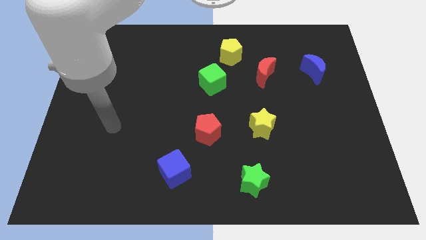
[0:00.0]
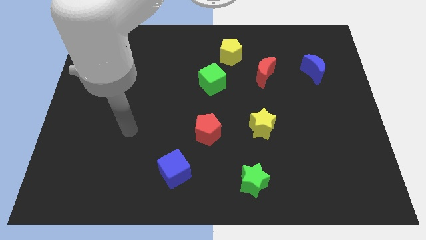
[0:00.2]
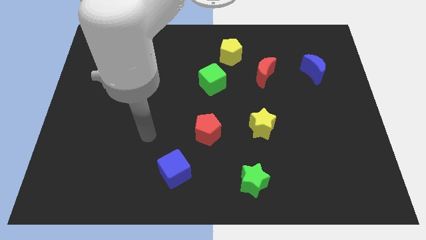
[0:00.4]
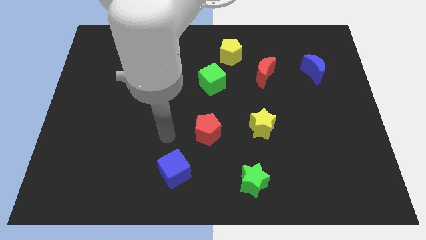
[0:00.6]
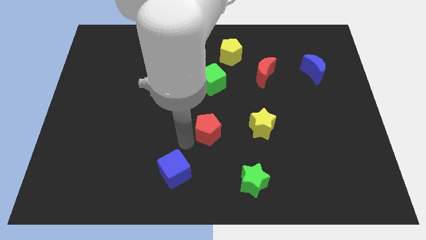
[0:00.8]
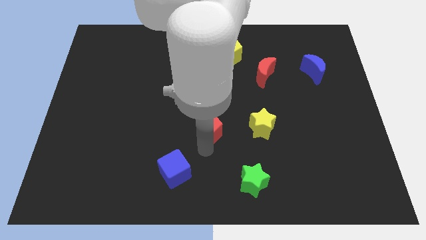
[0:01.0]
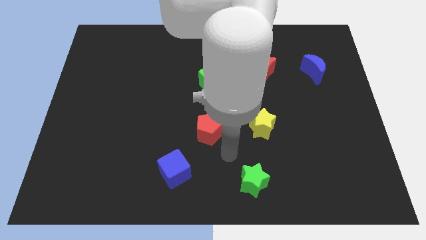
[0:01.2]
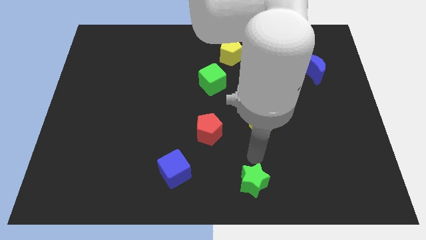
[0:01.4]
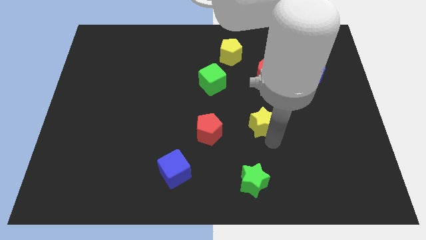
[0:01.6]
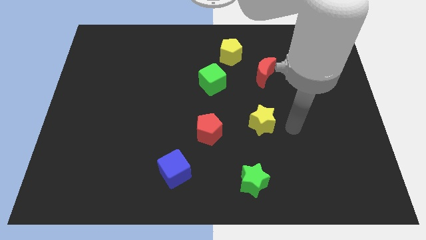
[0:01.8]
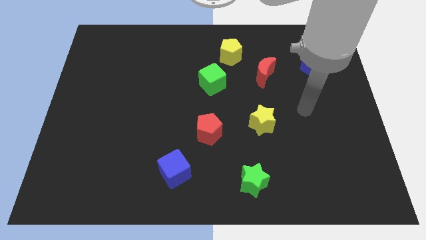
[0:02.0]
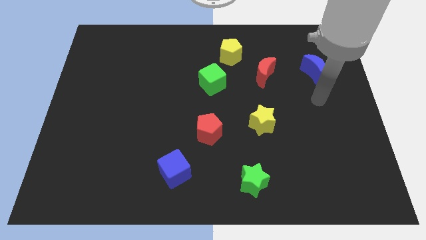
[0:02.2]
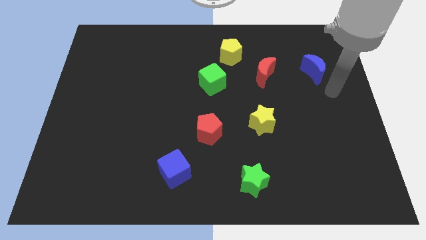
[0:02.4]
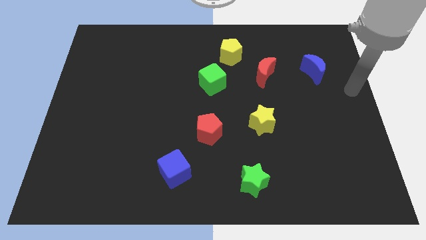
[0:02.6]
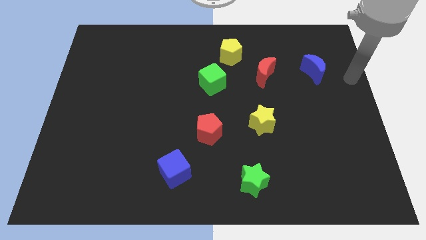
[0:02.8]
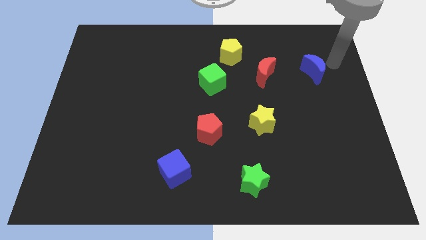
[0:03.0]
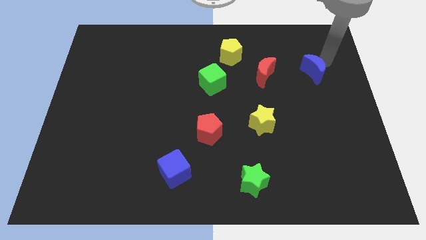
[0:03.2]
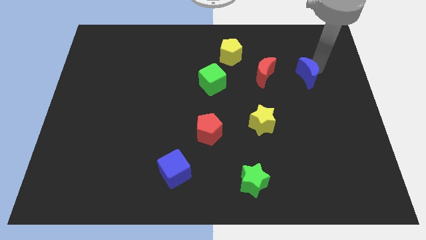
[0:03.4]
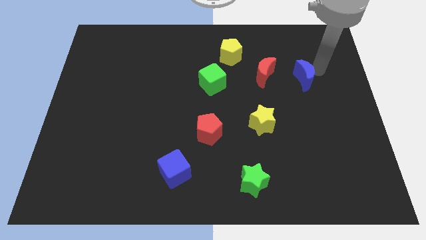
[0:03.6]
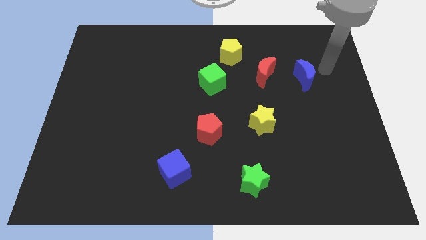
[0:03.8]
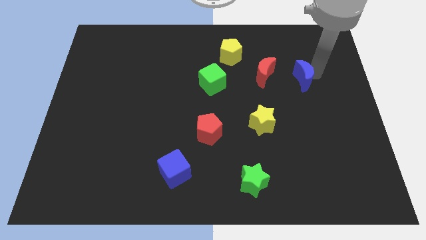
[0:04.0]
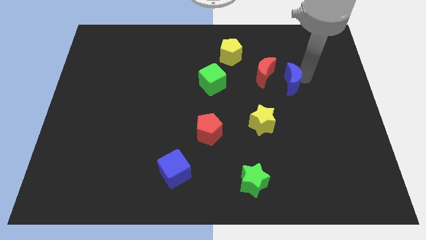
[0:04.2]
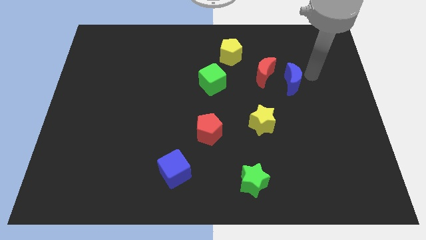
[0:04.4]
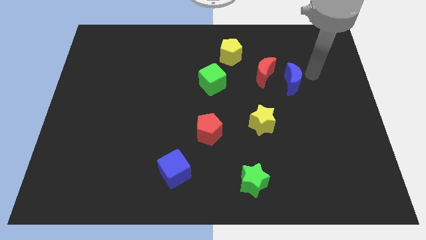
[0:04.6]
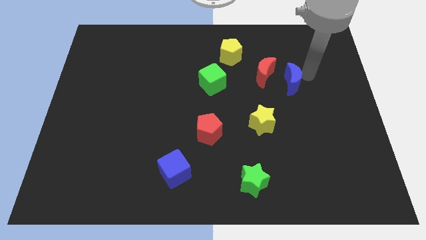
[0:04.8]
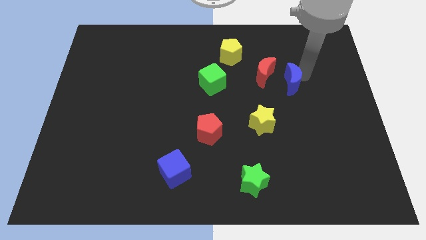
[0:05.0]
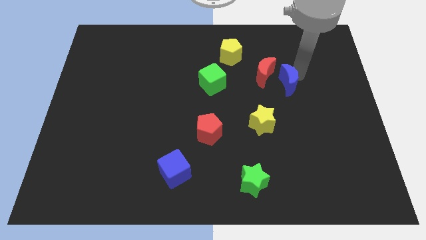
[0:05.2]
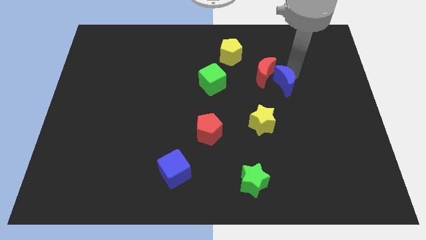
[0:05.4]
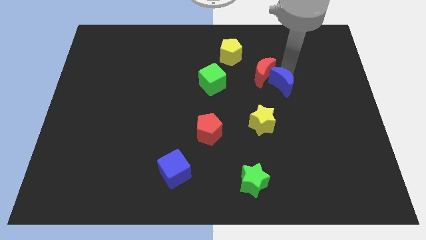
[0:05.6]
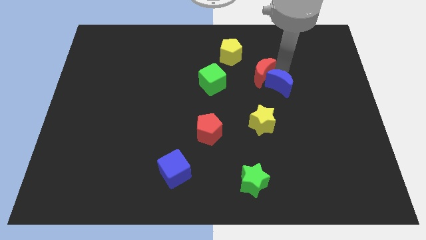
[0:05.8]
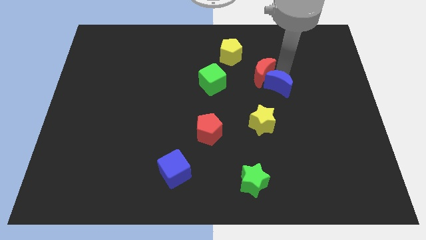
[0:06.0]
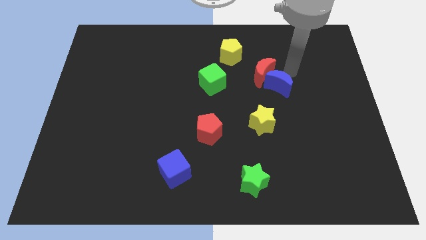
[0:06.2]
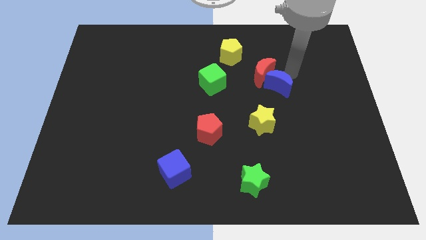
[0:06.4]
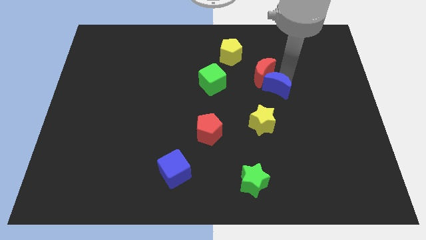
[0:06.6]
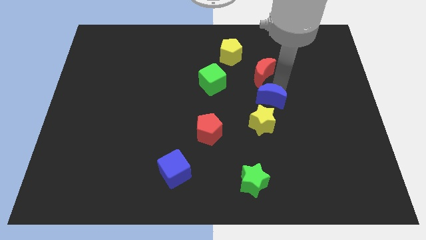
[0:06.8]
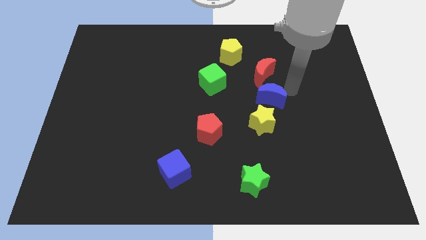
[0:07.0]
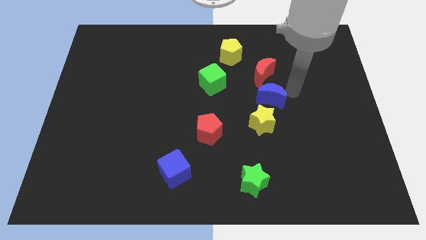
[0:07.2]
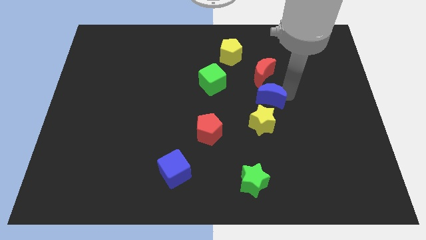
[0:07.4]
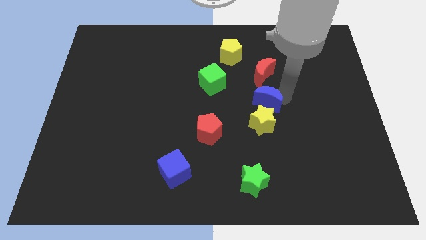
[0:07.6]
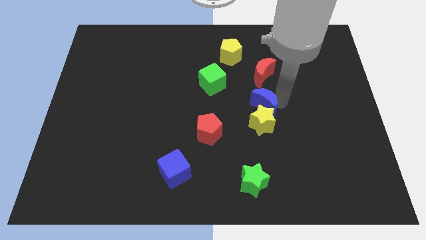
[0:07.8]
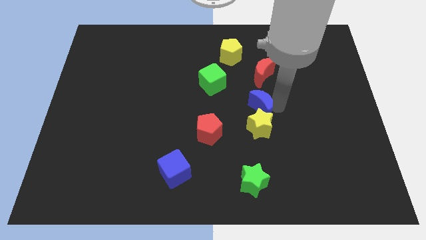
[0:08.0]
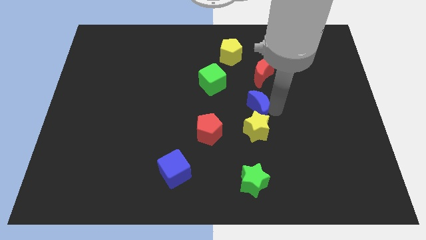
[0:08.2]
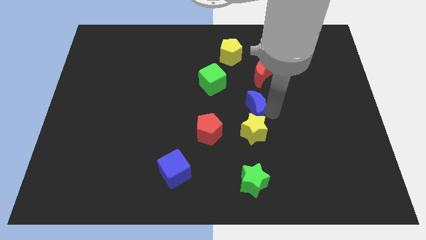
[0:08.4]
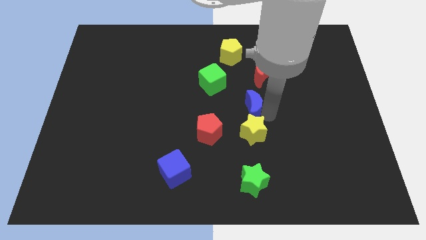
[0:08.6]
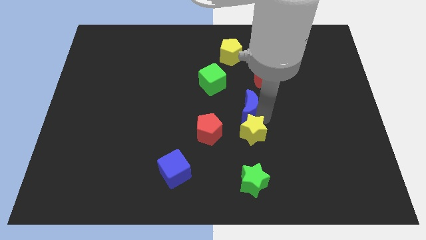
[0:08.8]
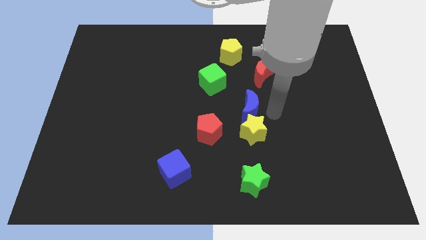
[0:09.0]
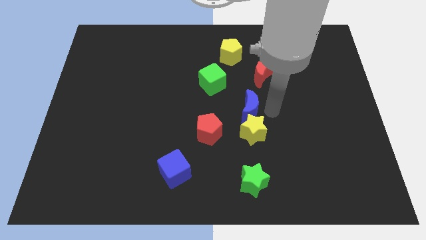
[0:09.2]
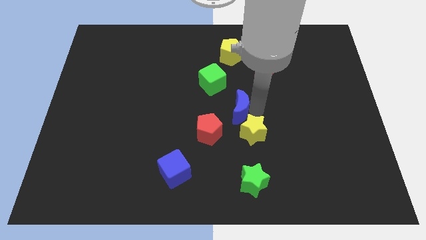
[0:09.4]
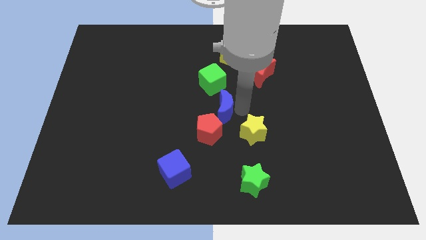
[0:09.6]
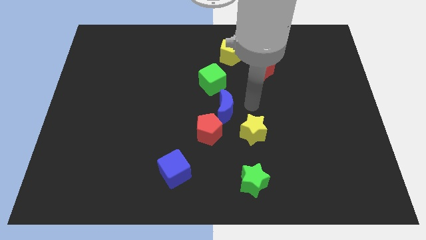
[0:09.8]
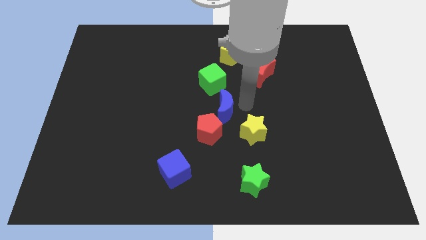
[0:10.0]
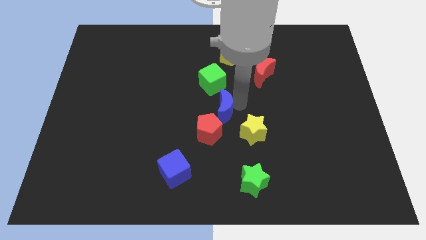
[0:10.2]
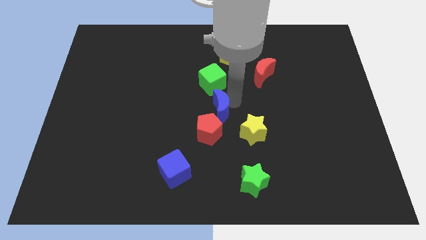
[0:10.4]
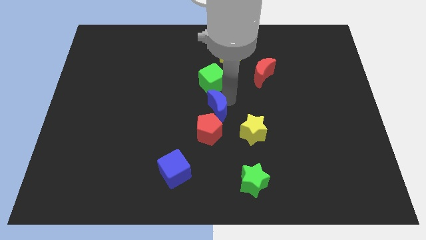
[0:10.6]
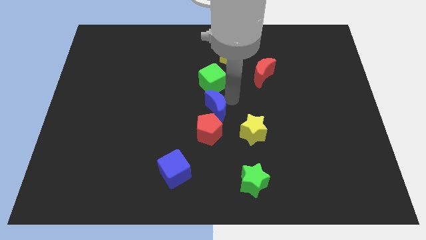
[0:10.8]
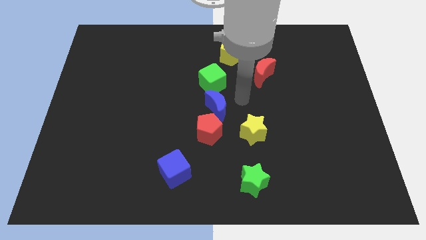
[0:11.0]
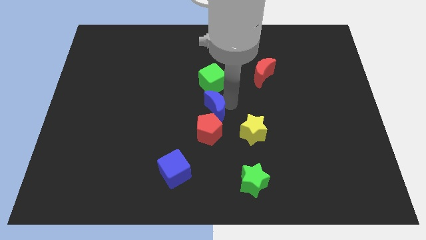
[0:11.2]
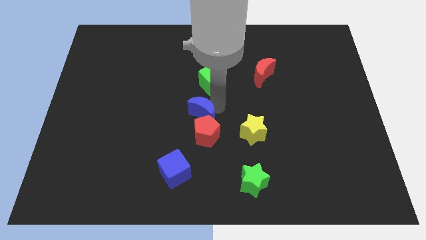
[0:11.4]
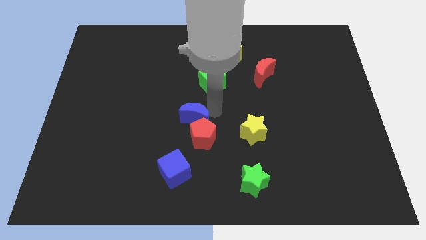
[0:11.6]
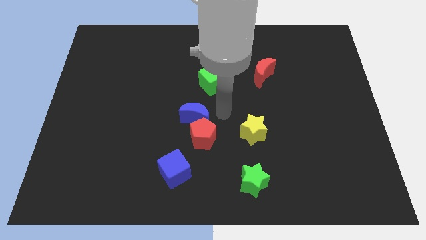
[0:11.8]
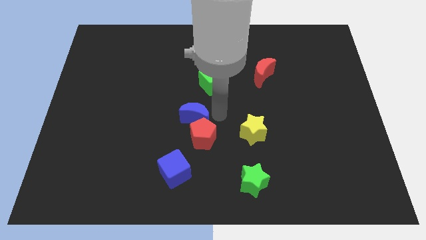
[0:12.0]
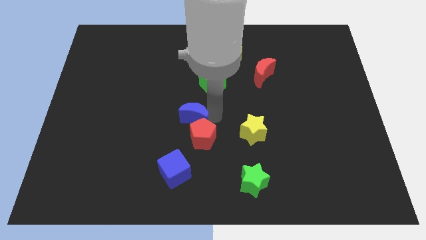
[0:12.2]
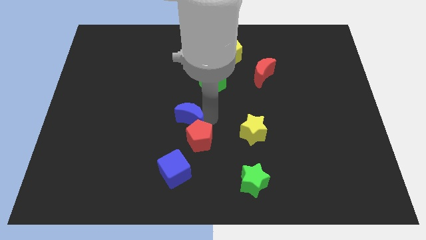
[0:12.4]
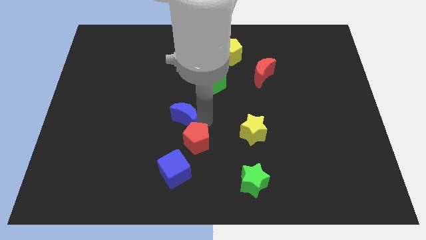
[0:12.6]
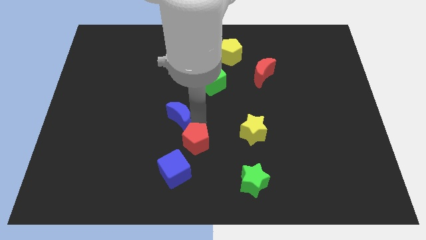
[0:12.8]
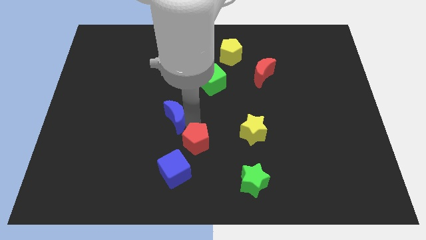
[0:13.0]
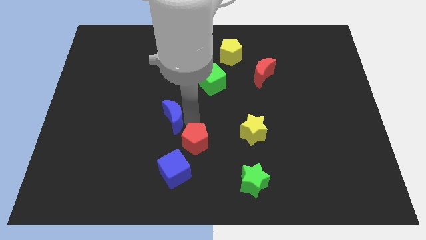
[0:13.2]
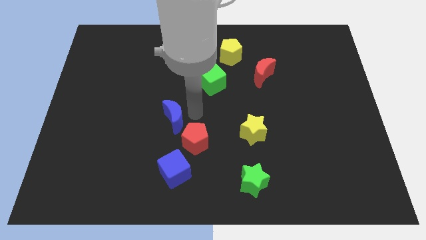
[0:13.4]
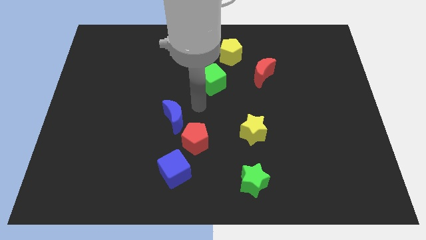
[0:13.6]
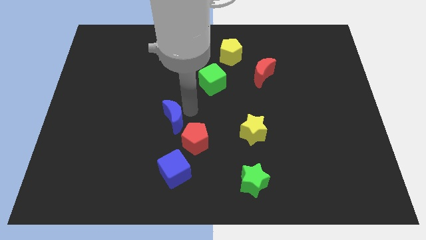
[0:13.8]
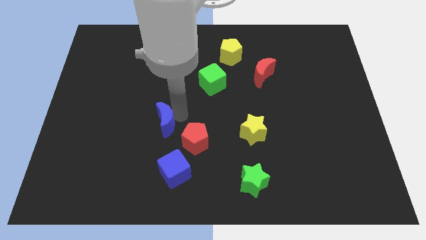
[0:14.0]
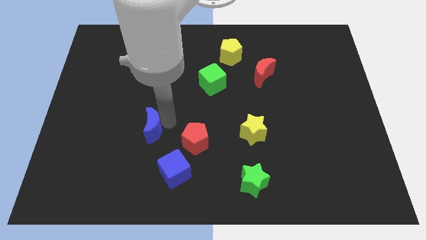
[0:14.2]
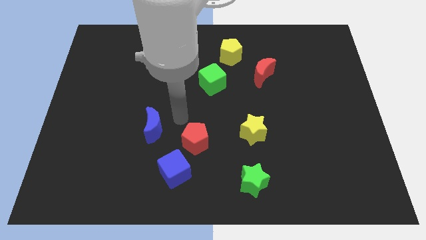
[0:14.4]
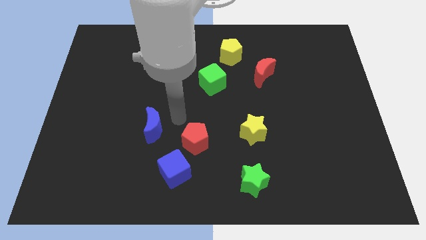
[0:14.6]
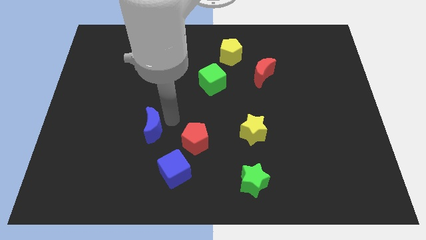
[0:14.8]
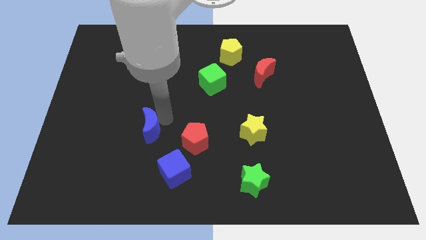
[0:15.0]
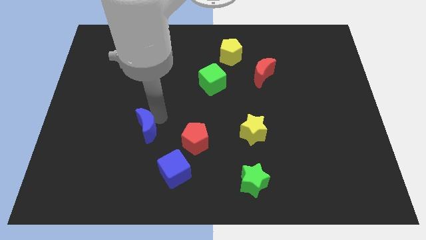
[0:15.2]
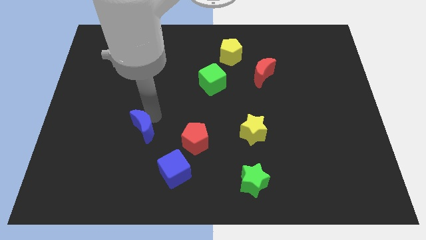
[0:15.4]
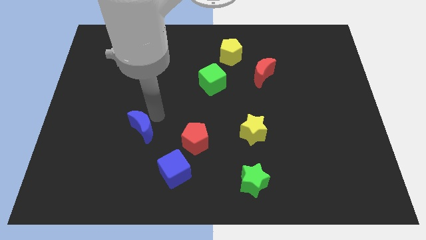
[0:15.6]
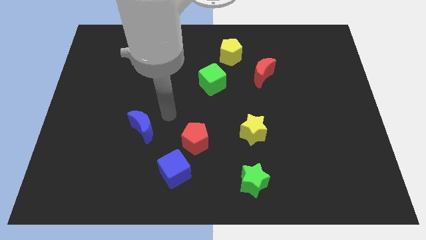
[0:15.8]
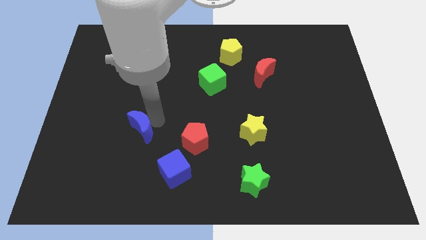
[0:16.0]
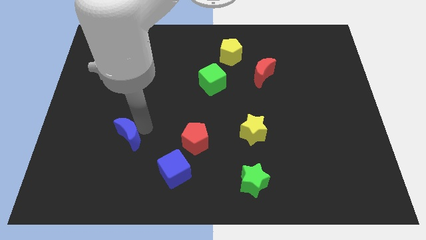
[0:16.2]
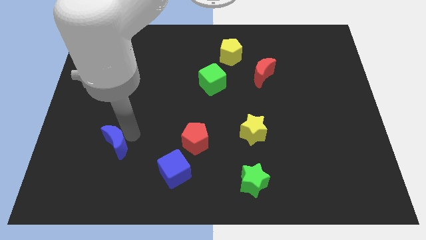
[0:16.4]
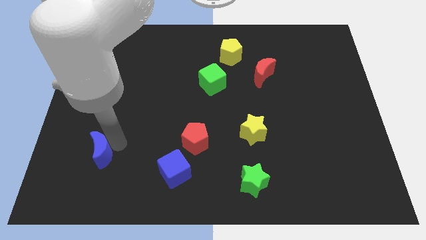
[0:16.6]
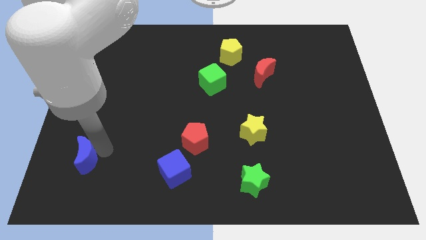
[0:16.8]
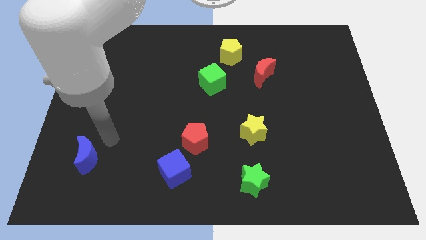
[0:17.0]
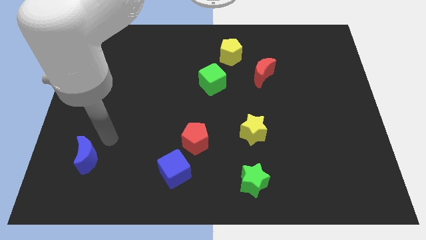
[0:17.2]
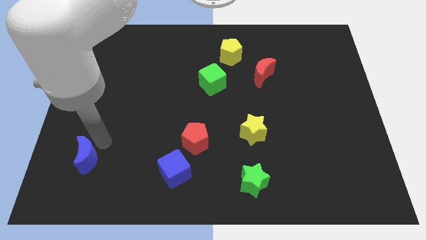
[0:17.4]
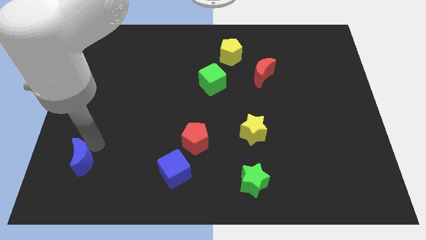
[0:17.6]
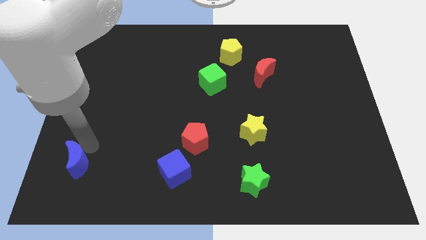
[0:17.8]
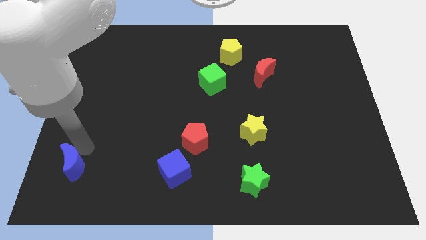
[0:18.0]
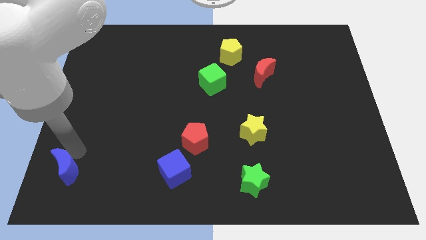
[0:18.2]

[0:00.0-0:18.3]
move the blue moon to the bottom left
